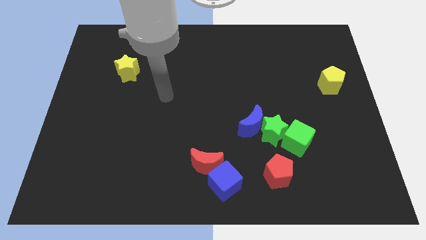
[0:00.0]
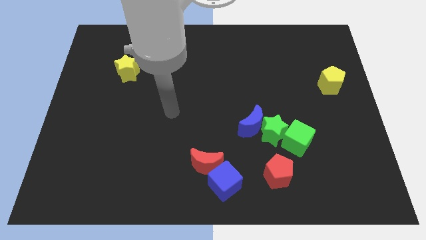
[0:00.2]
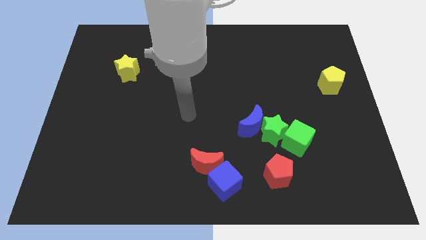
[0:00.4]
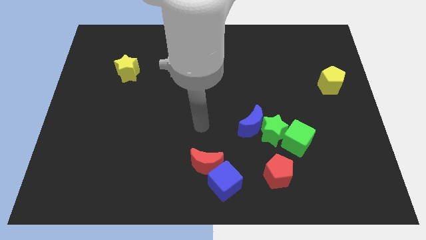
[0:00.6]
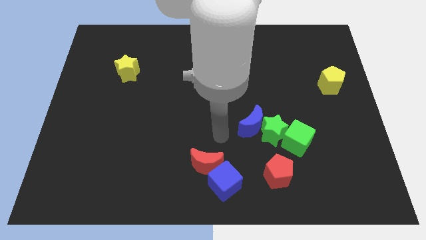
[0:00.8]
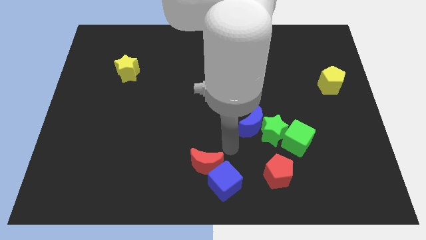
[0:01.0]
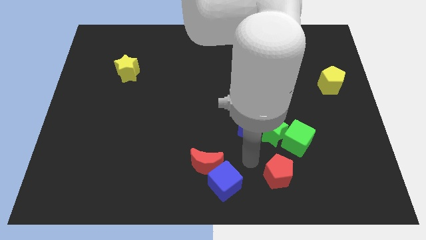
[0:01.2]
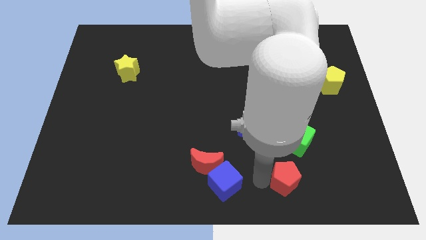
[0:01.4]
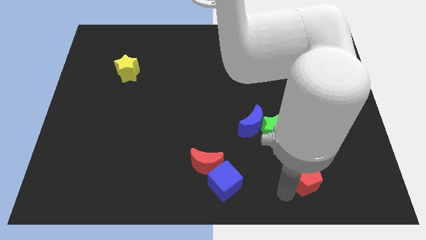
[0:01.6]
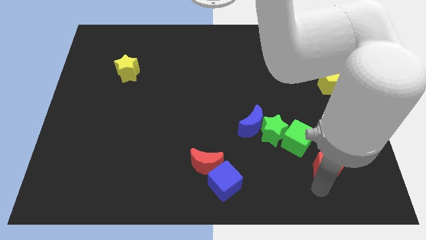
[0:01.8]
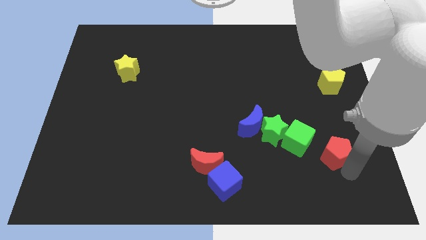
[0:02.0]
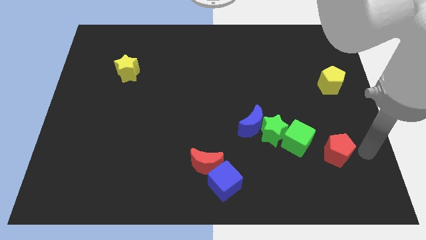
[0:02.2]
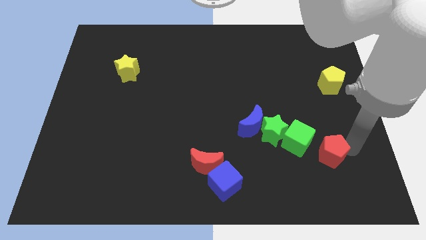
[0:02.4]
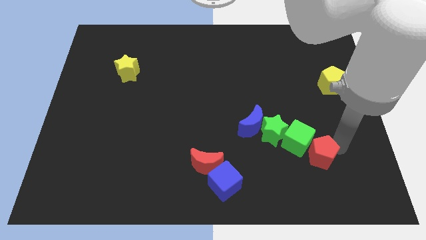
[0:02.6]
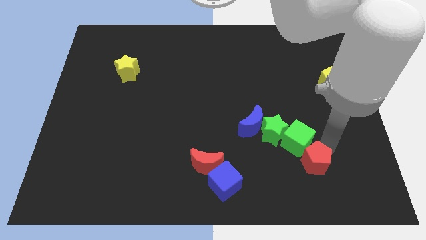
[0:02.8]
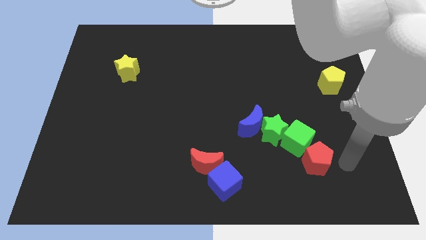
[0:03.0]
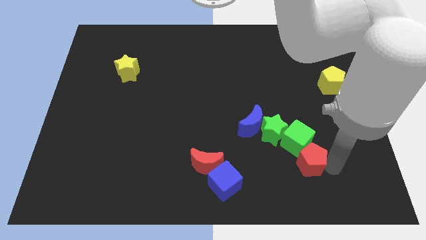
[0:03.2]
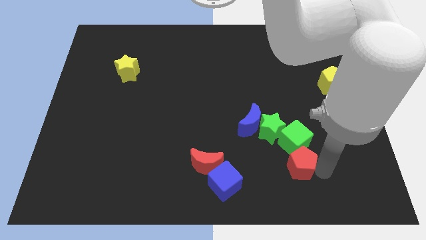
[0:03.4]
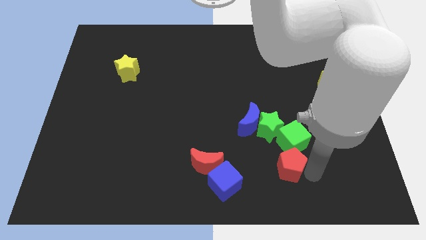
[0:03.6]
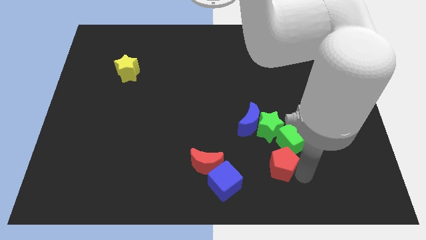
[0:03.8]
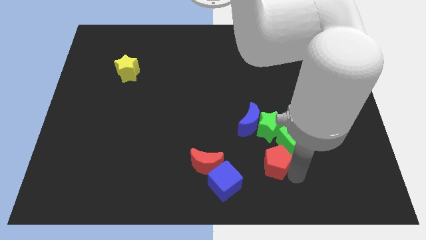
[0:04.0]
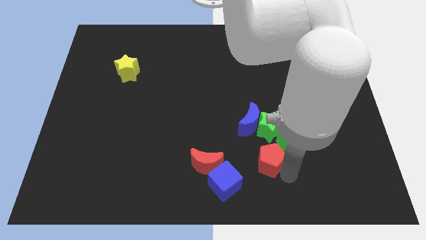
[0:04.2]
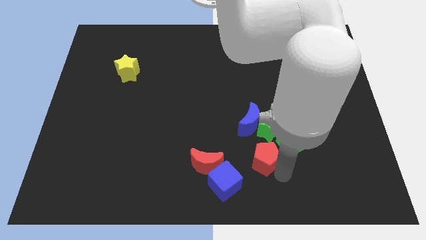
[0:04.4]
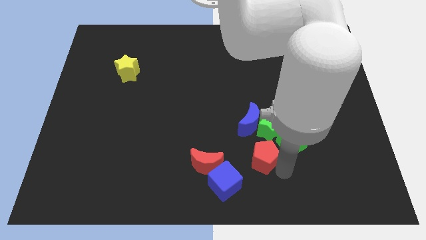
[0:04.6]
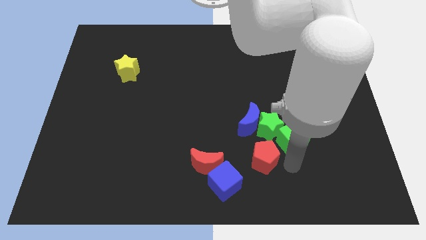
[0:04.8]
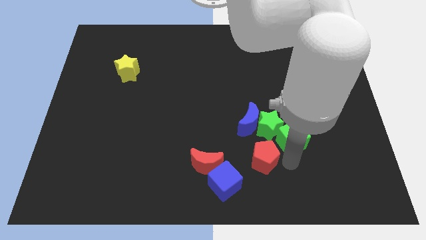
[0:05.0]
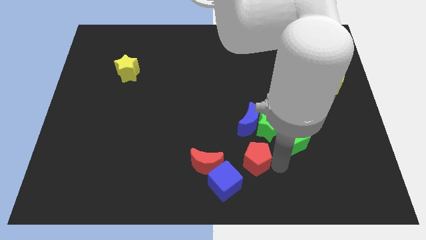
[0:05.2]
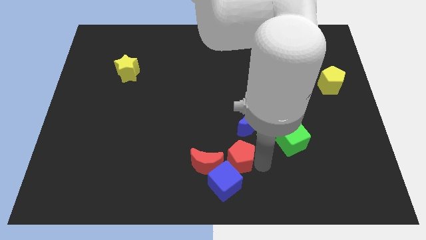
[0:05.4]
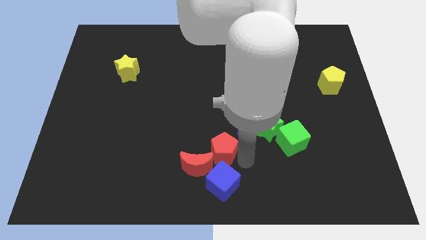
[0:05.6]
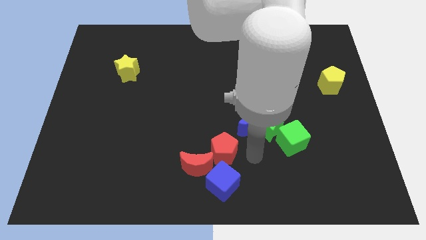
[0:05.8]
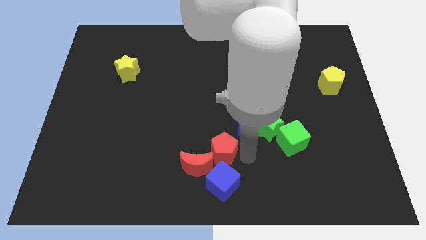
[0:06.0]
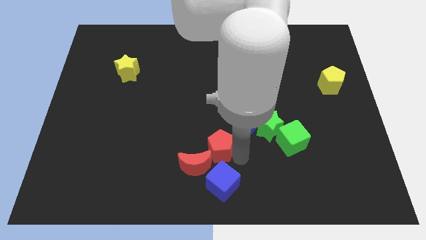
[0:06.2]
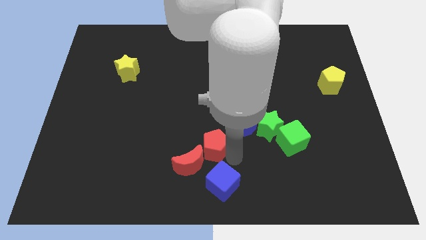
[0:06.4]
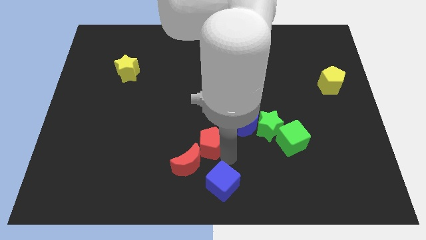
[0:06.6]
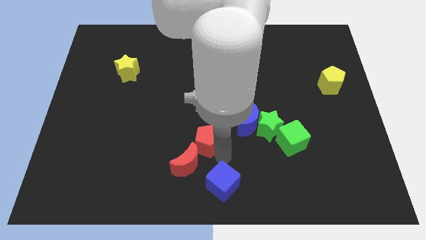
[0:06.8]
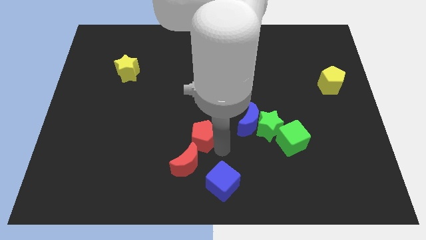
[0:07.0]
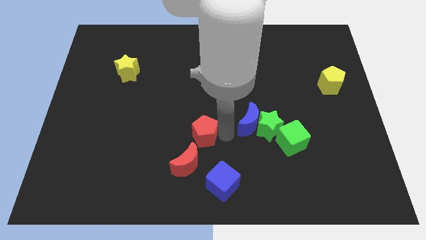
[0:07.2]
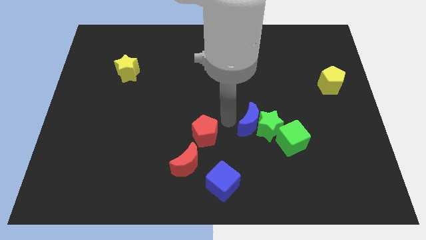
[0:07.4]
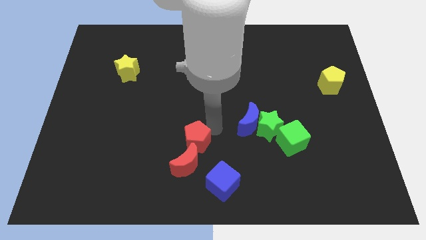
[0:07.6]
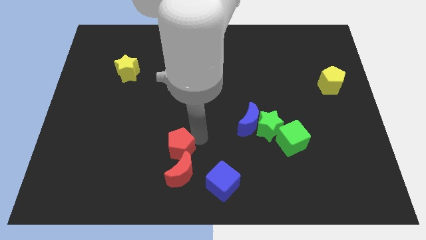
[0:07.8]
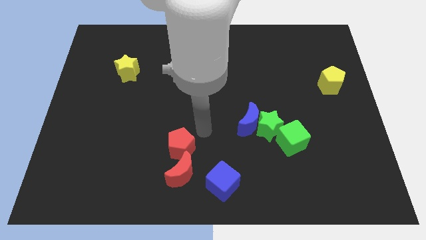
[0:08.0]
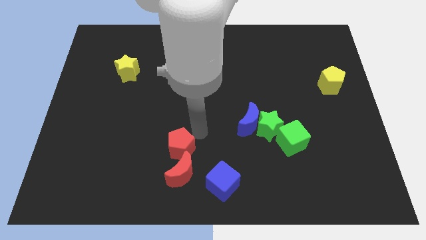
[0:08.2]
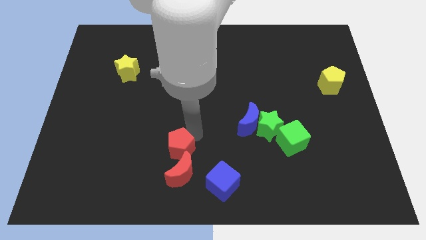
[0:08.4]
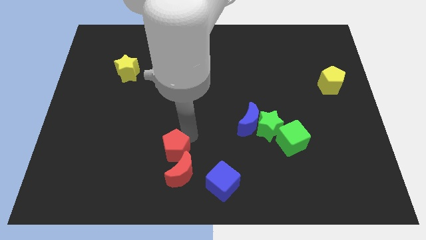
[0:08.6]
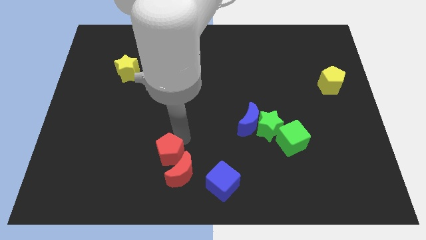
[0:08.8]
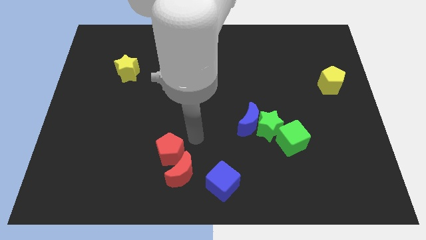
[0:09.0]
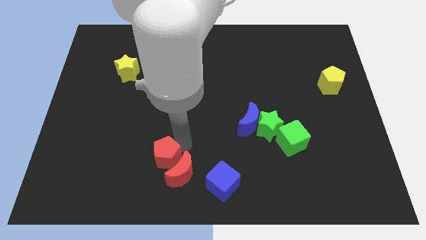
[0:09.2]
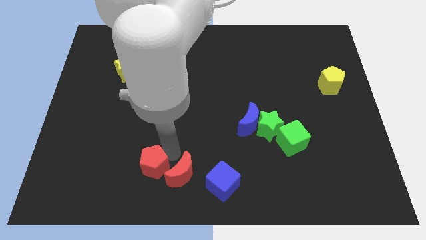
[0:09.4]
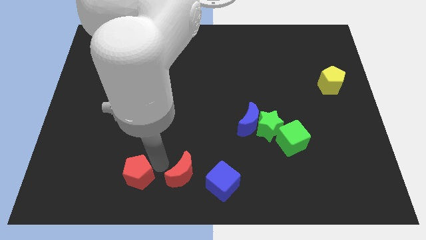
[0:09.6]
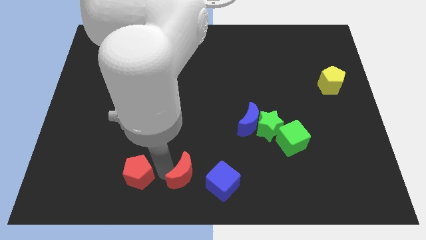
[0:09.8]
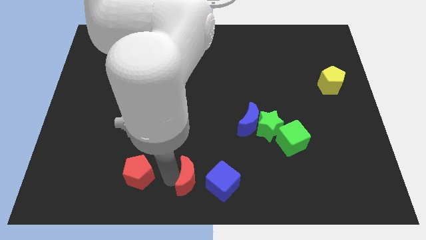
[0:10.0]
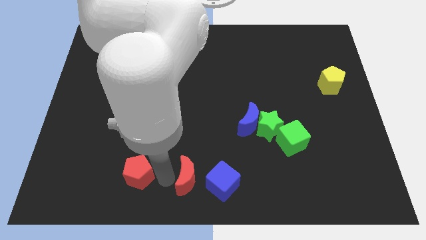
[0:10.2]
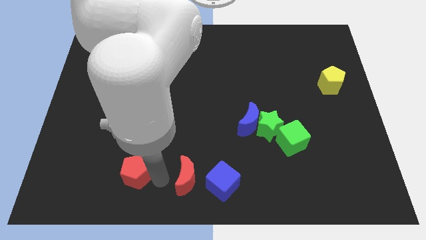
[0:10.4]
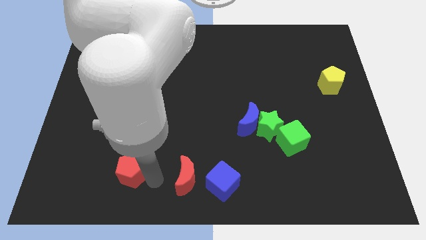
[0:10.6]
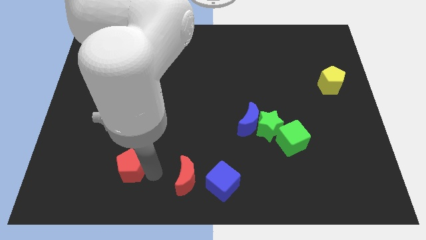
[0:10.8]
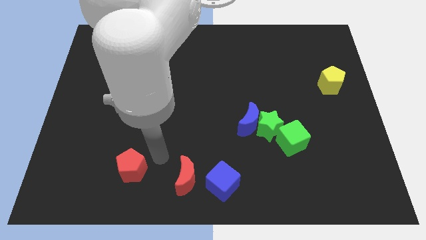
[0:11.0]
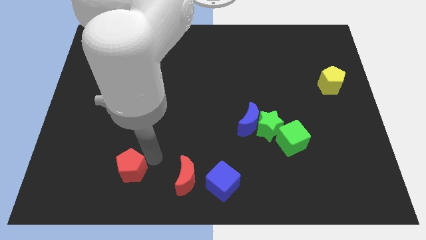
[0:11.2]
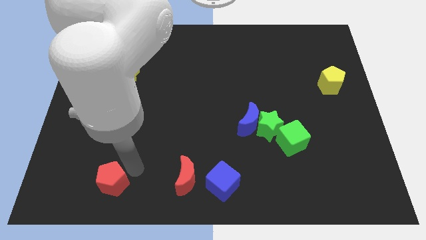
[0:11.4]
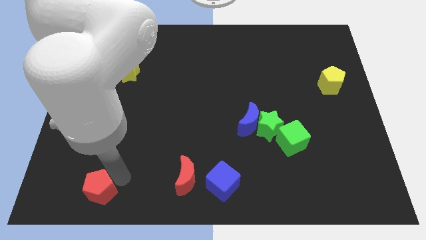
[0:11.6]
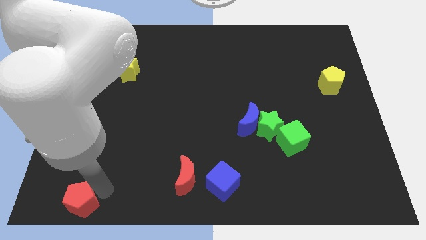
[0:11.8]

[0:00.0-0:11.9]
push the red pentagon to the bottom left corner

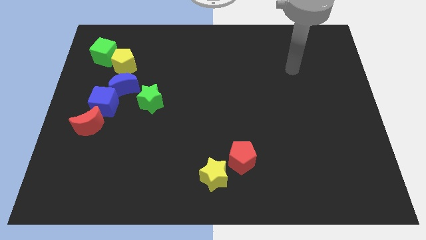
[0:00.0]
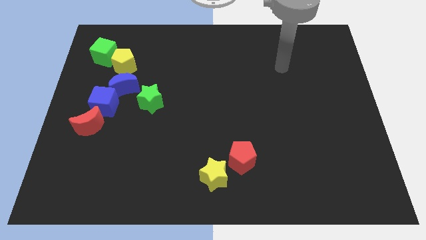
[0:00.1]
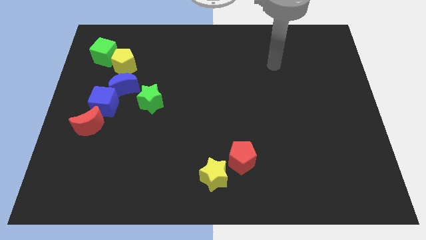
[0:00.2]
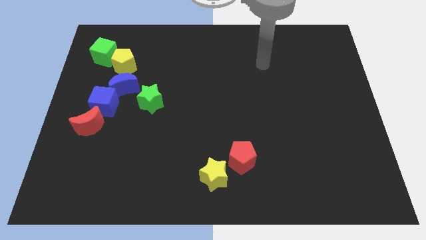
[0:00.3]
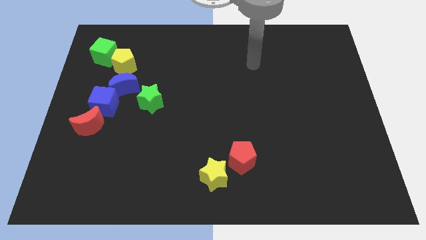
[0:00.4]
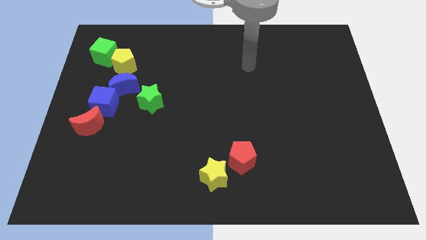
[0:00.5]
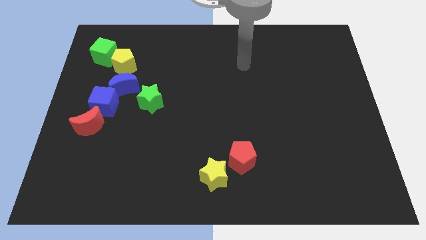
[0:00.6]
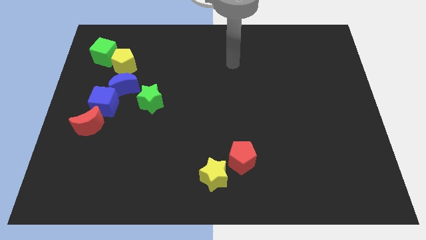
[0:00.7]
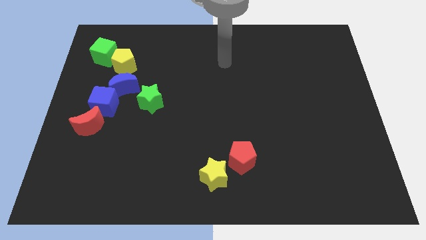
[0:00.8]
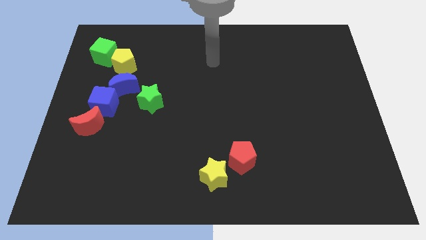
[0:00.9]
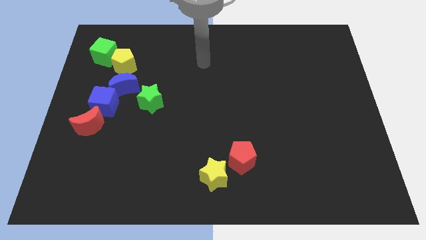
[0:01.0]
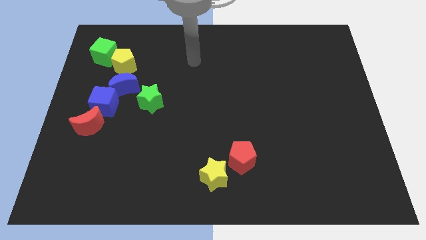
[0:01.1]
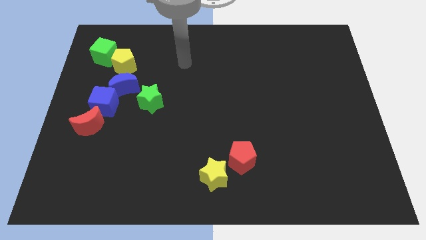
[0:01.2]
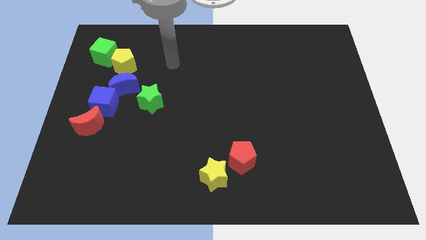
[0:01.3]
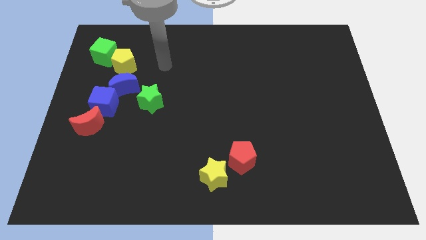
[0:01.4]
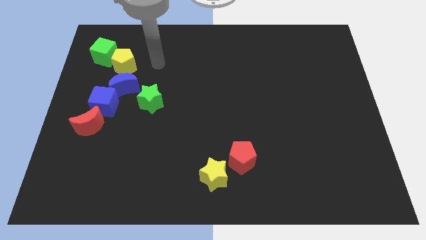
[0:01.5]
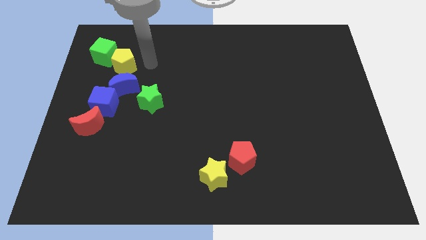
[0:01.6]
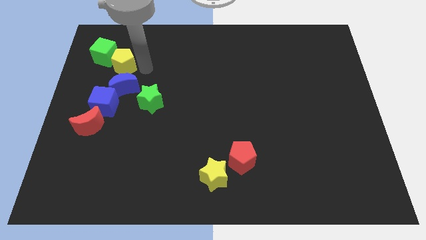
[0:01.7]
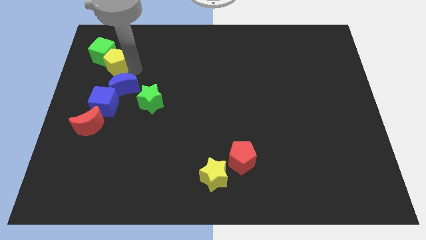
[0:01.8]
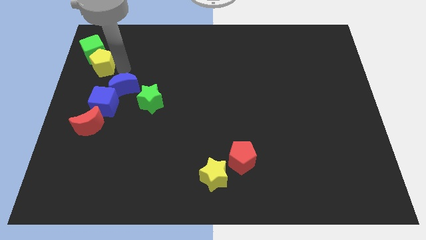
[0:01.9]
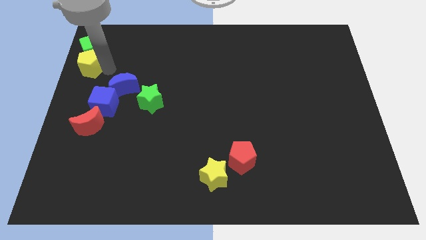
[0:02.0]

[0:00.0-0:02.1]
push the green cube to the upper left corner
